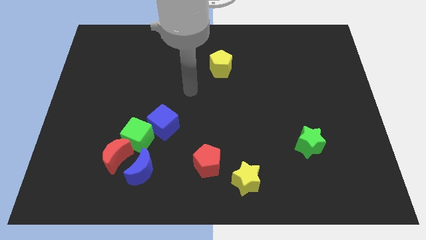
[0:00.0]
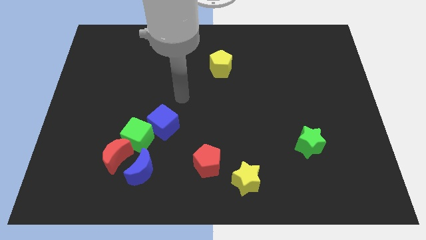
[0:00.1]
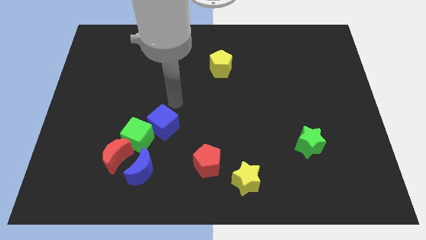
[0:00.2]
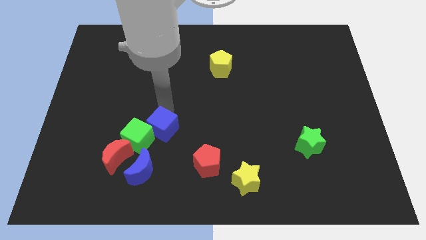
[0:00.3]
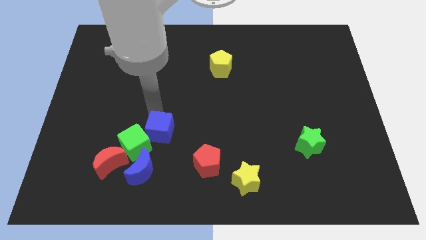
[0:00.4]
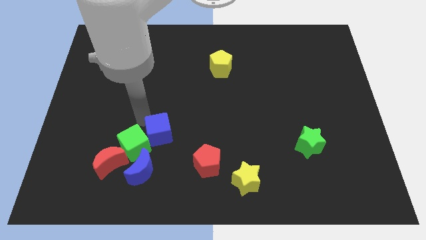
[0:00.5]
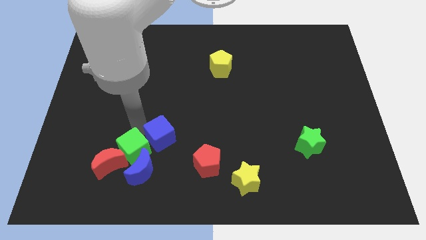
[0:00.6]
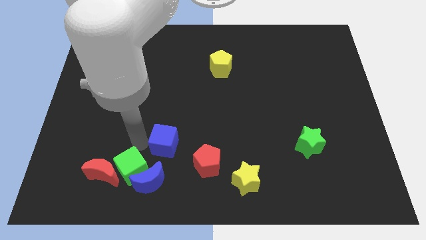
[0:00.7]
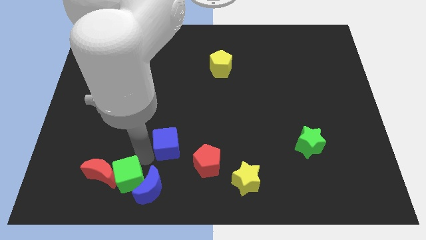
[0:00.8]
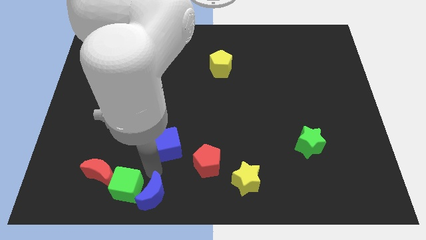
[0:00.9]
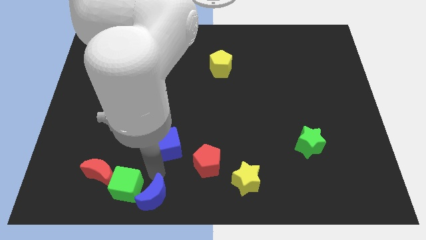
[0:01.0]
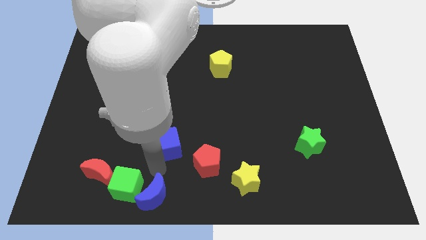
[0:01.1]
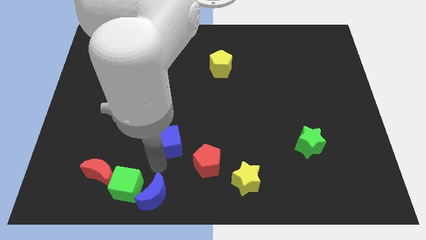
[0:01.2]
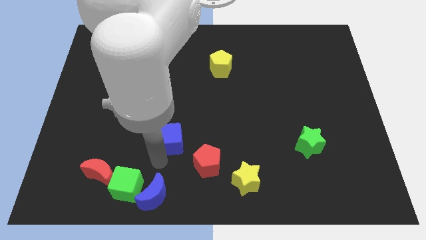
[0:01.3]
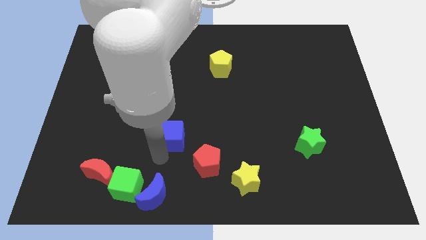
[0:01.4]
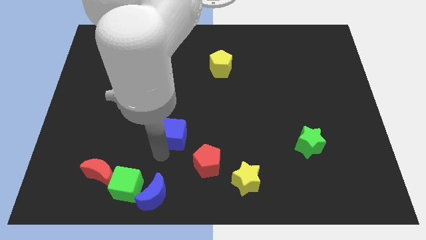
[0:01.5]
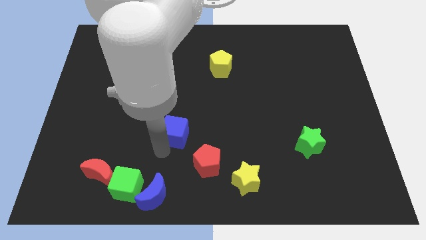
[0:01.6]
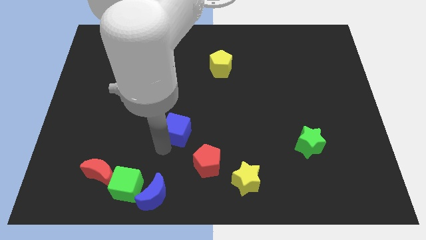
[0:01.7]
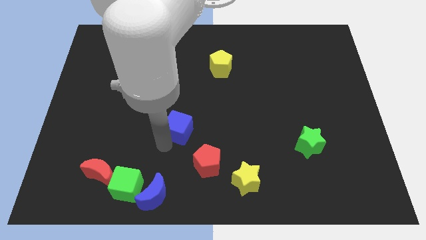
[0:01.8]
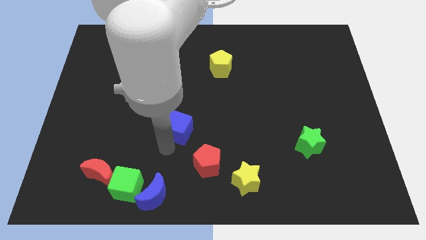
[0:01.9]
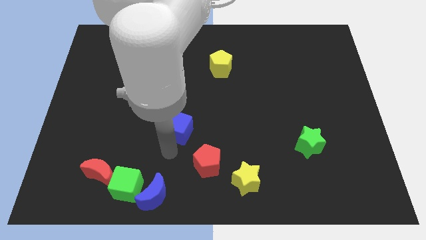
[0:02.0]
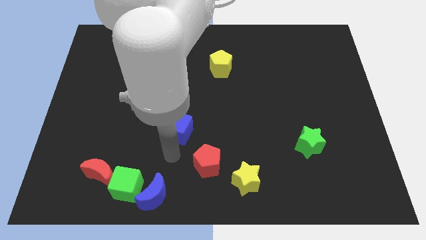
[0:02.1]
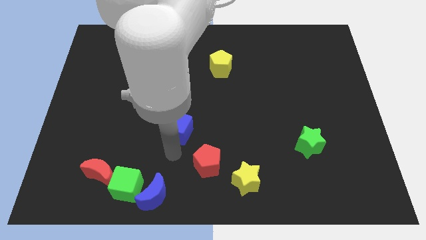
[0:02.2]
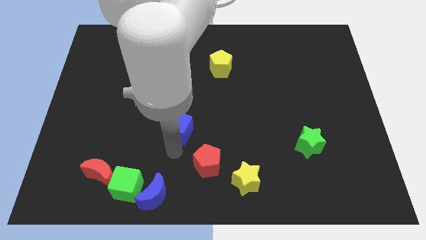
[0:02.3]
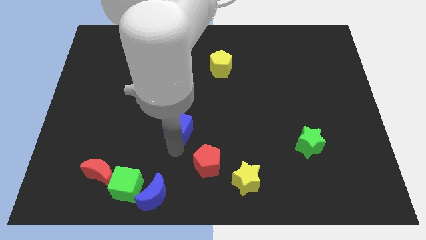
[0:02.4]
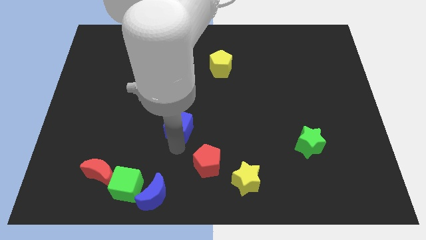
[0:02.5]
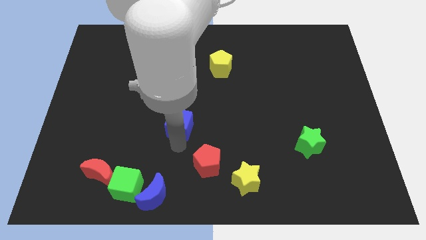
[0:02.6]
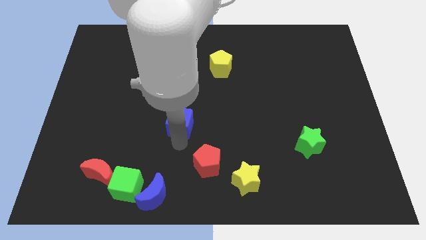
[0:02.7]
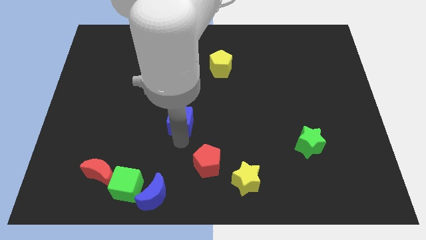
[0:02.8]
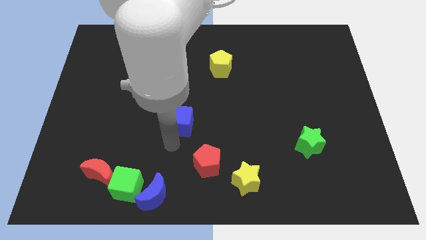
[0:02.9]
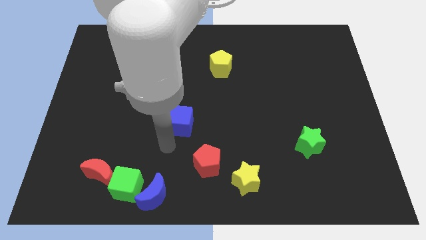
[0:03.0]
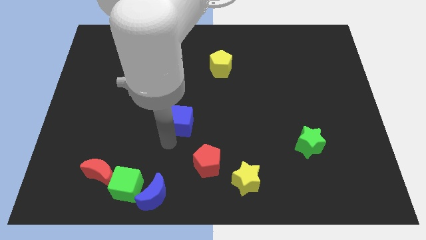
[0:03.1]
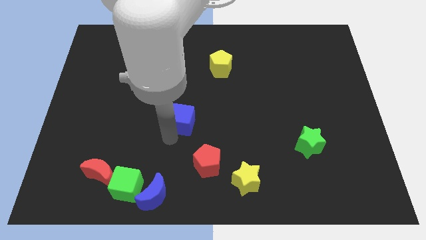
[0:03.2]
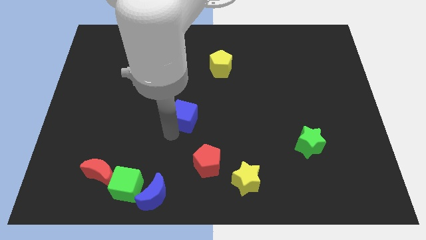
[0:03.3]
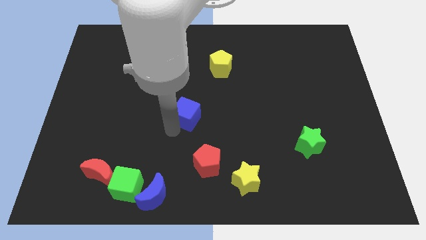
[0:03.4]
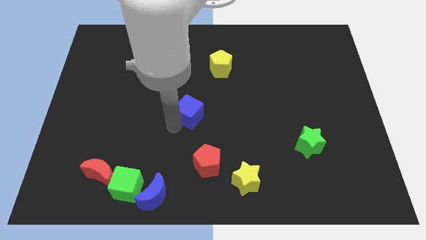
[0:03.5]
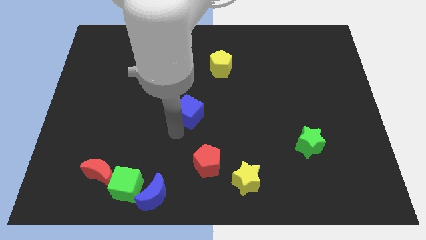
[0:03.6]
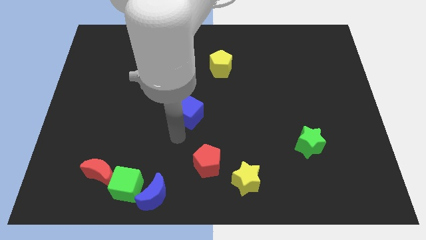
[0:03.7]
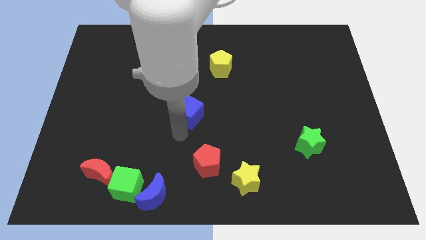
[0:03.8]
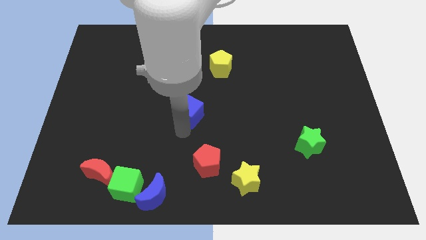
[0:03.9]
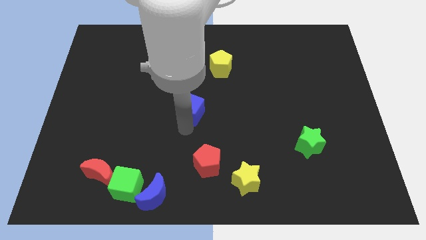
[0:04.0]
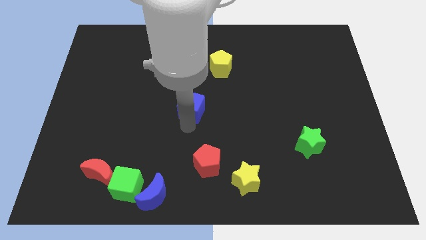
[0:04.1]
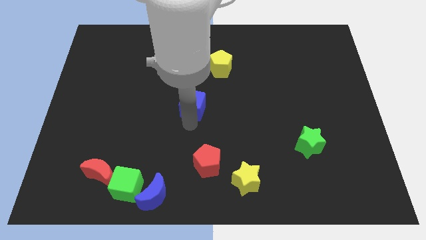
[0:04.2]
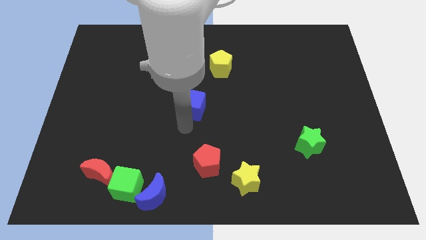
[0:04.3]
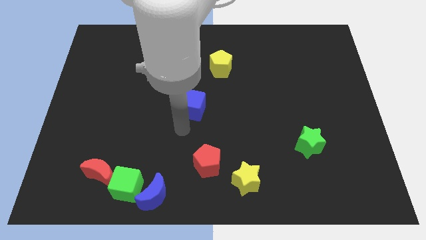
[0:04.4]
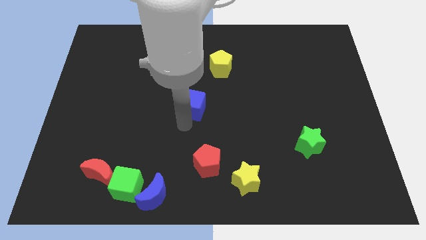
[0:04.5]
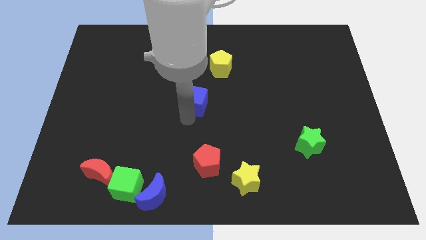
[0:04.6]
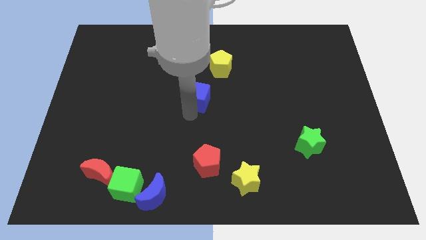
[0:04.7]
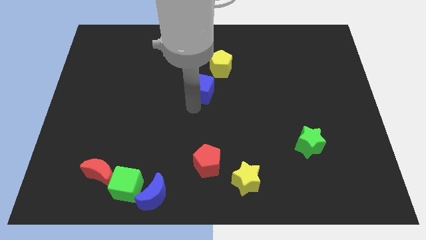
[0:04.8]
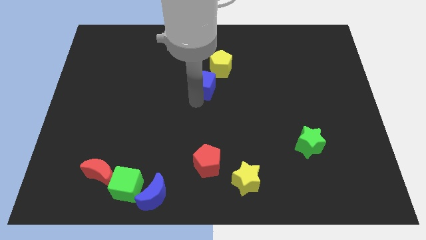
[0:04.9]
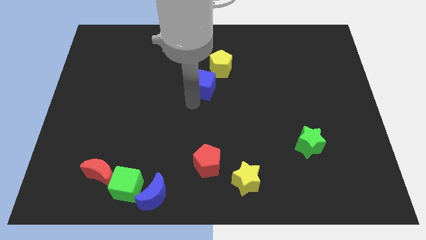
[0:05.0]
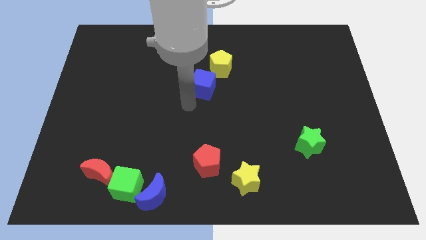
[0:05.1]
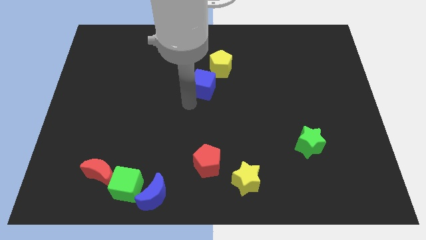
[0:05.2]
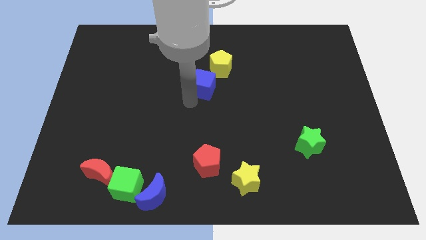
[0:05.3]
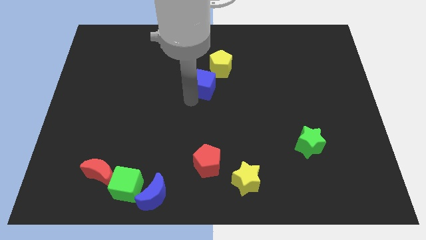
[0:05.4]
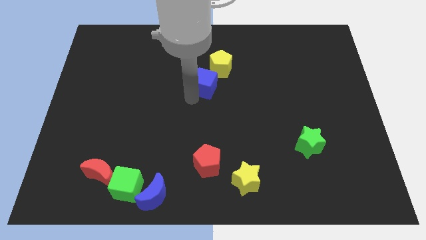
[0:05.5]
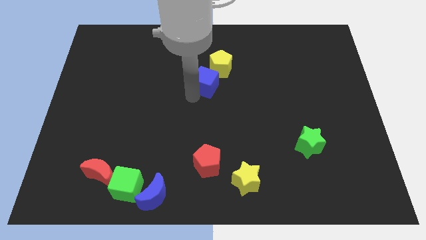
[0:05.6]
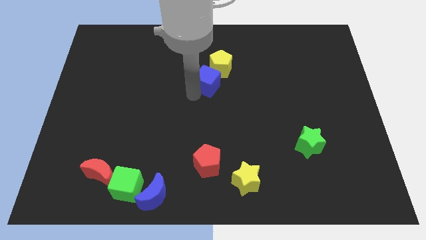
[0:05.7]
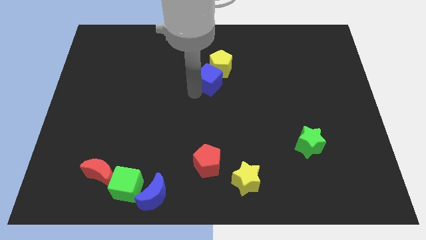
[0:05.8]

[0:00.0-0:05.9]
move the blue cube towards the yellow pentagon

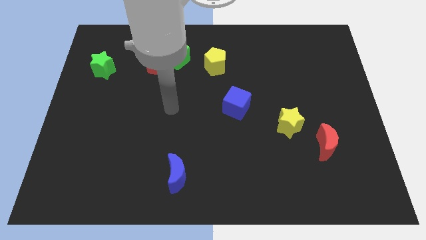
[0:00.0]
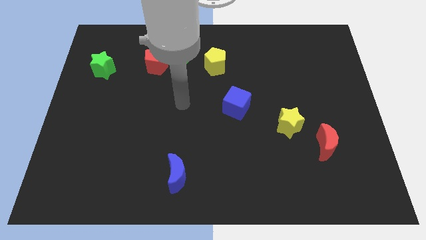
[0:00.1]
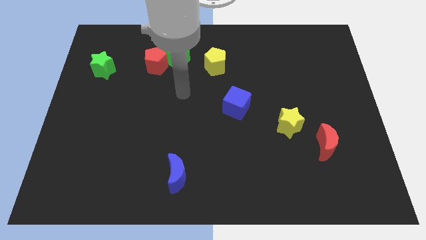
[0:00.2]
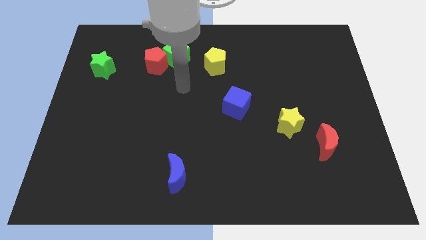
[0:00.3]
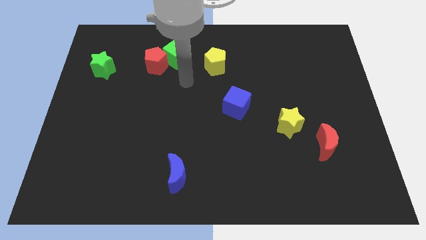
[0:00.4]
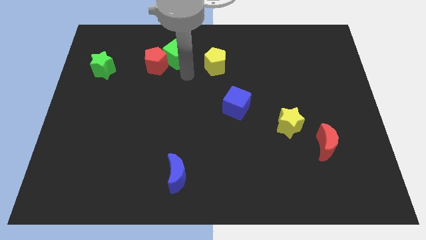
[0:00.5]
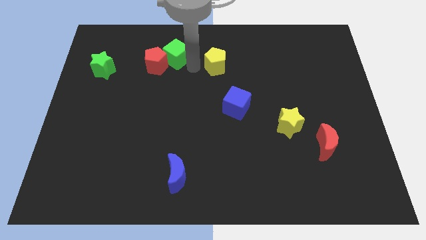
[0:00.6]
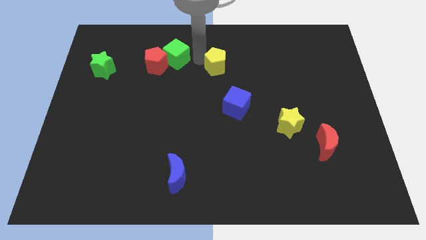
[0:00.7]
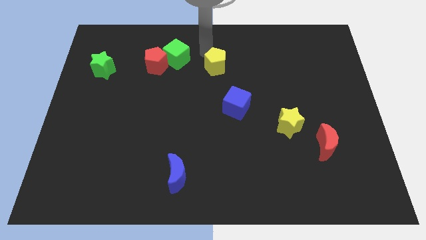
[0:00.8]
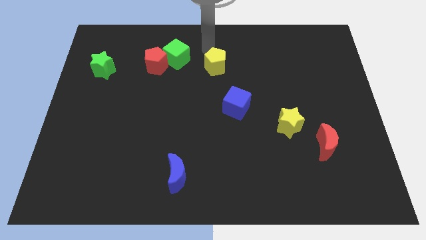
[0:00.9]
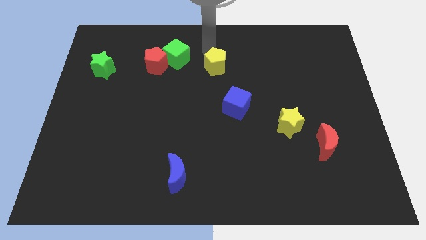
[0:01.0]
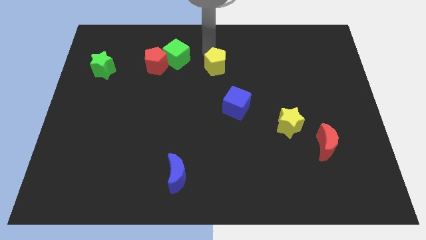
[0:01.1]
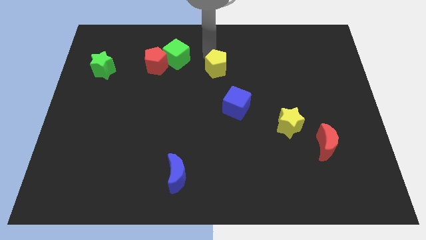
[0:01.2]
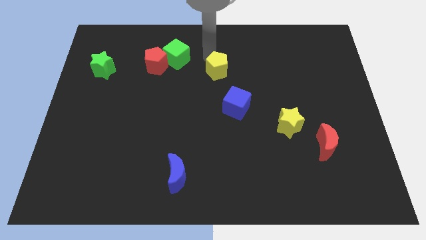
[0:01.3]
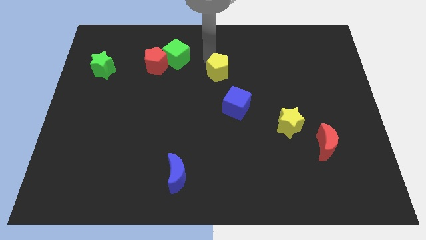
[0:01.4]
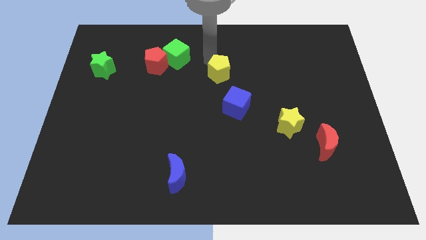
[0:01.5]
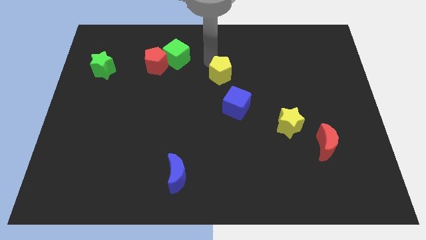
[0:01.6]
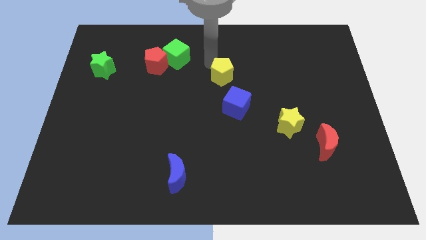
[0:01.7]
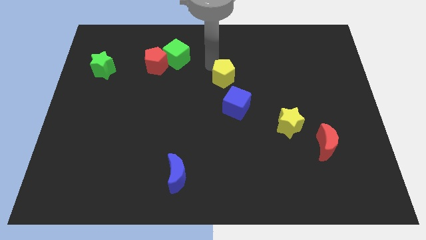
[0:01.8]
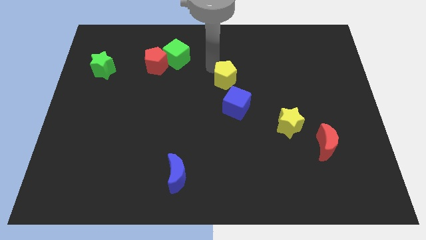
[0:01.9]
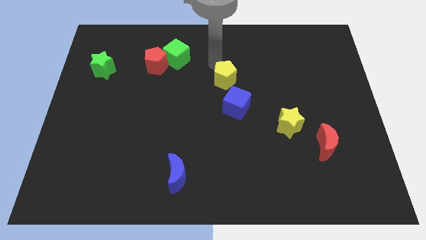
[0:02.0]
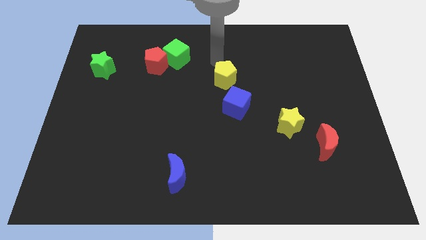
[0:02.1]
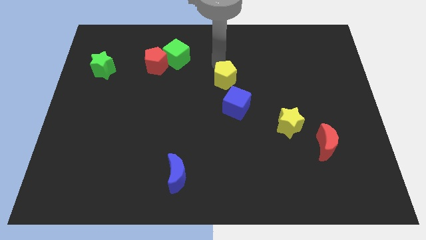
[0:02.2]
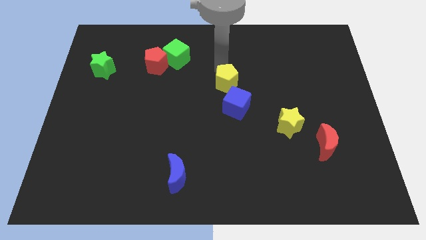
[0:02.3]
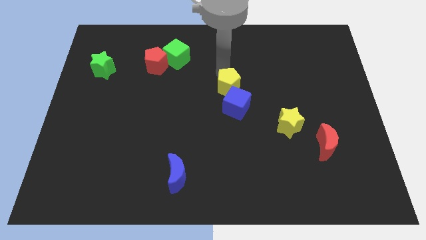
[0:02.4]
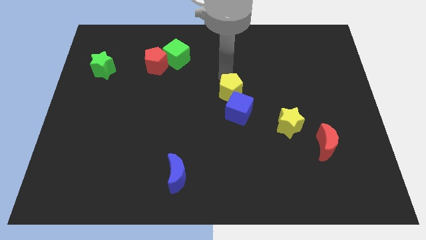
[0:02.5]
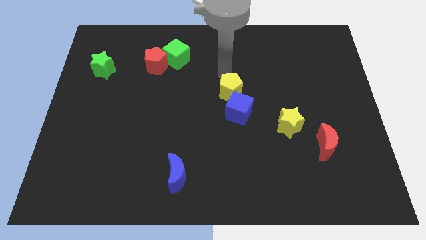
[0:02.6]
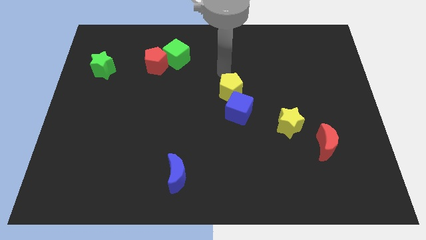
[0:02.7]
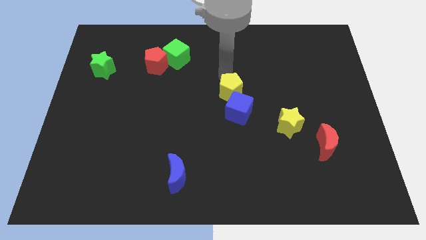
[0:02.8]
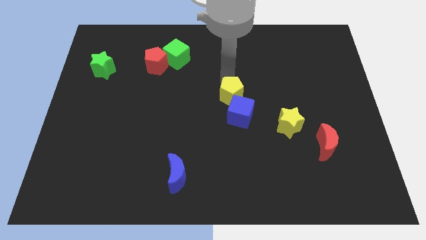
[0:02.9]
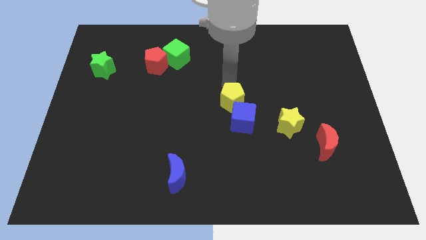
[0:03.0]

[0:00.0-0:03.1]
slide the yellow pentagon close to the blue cube
